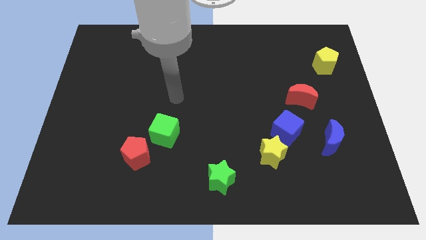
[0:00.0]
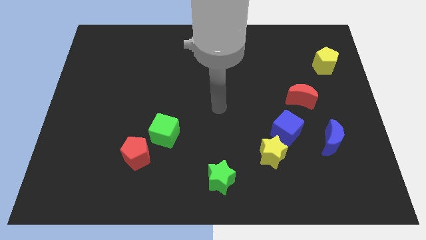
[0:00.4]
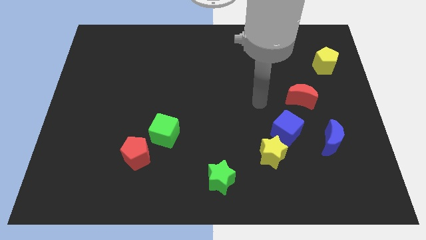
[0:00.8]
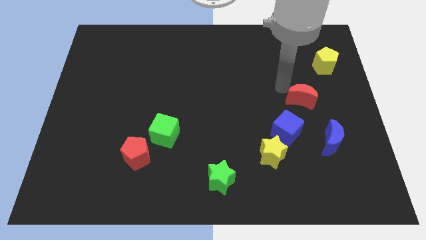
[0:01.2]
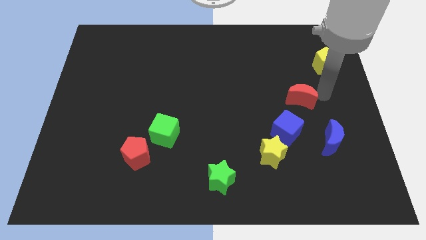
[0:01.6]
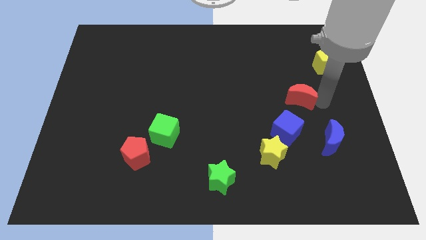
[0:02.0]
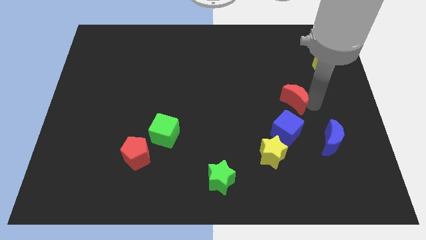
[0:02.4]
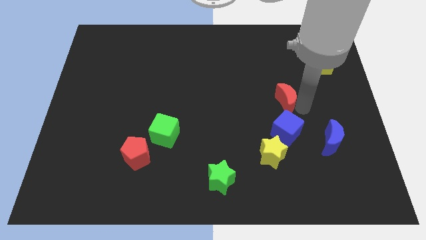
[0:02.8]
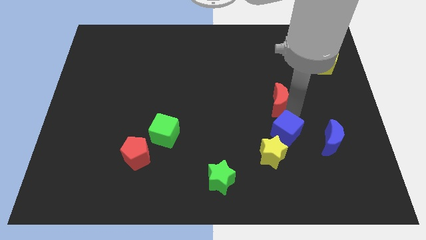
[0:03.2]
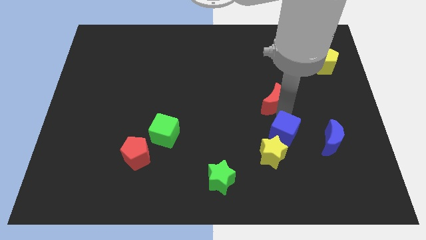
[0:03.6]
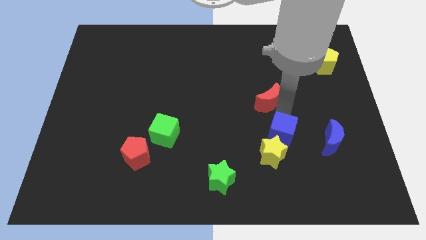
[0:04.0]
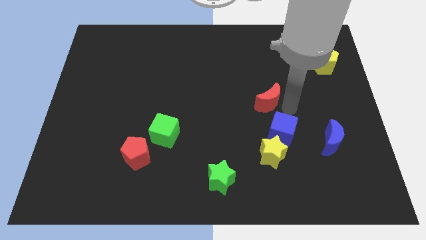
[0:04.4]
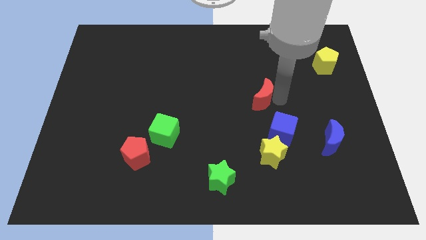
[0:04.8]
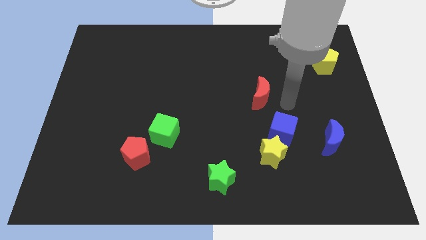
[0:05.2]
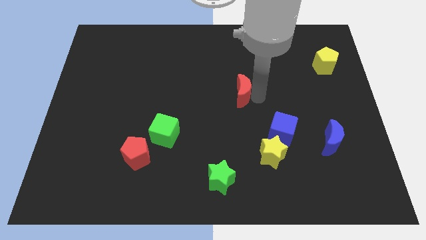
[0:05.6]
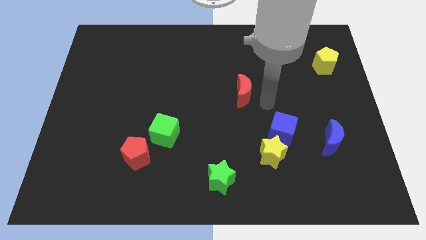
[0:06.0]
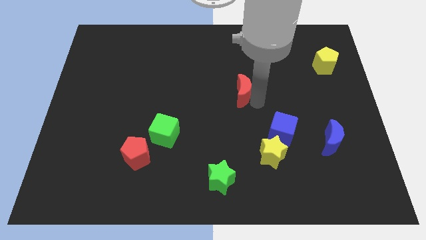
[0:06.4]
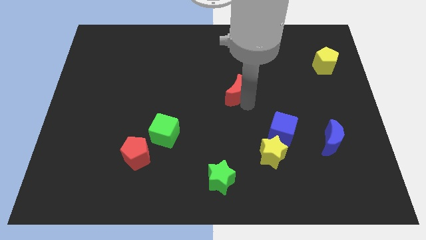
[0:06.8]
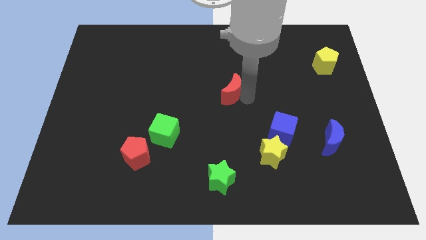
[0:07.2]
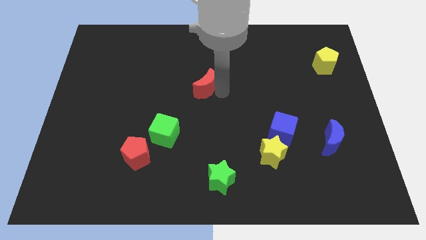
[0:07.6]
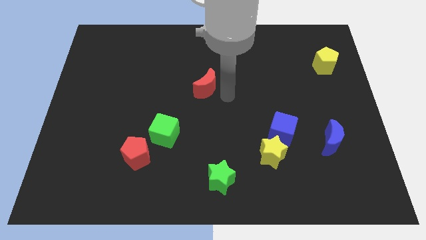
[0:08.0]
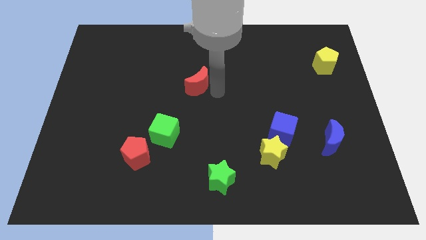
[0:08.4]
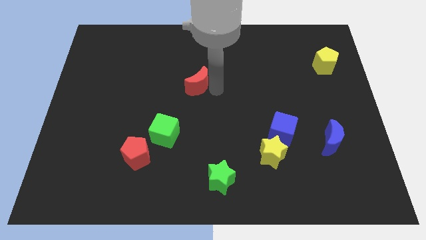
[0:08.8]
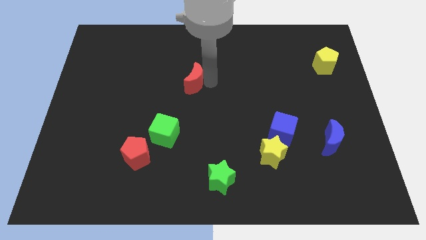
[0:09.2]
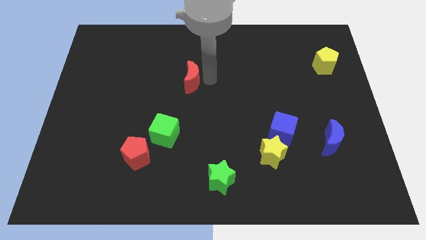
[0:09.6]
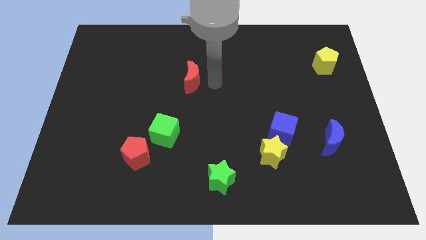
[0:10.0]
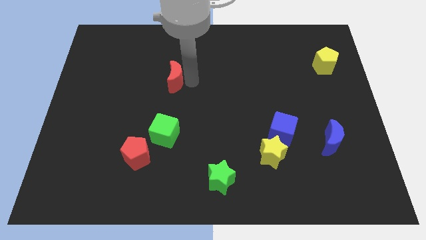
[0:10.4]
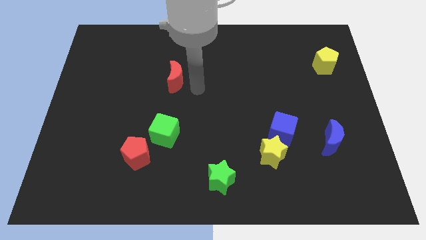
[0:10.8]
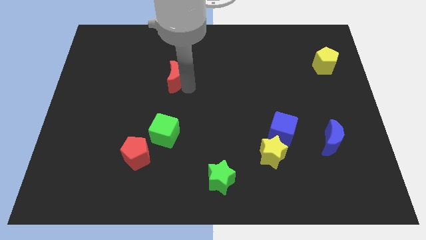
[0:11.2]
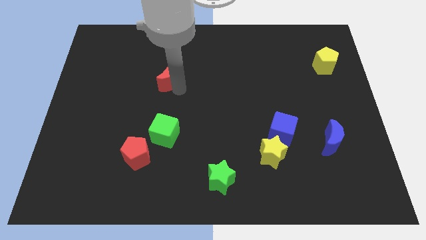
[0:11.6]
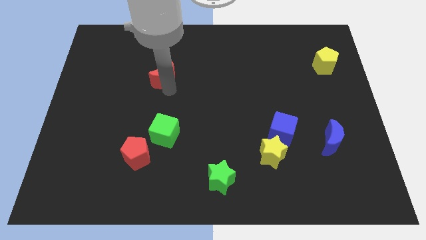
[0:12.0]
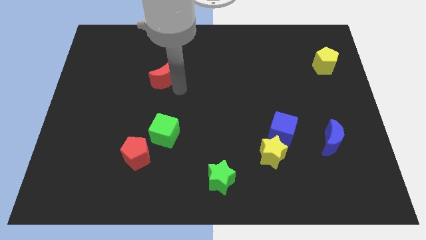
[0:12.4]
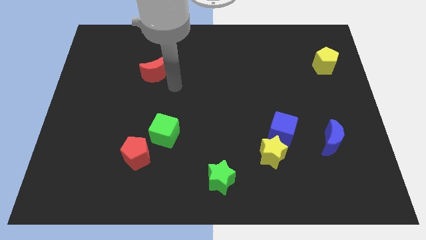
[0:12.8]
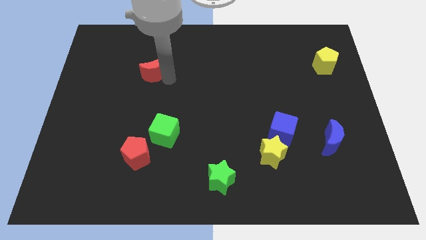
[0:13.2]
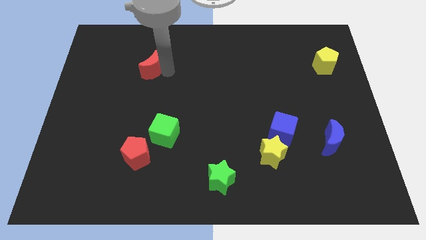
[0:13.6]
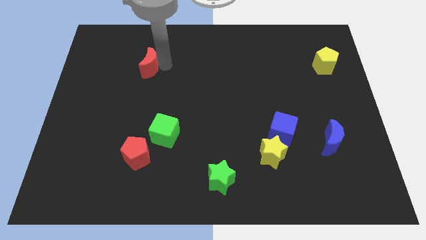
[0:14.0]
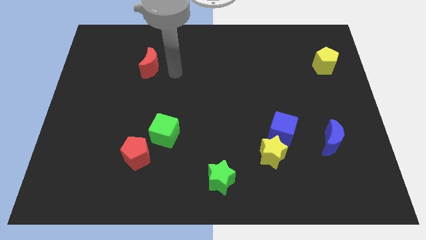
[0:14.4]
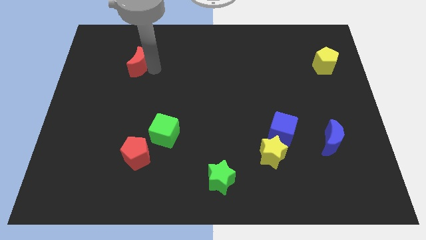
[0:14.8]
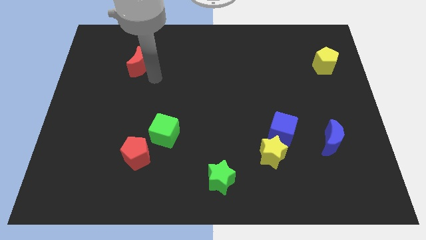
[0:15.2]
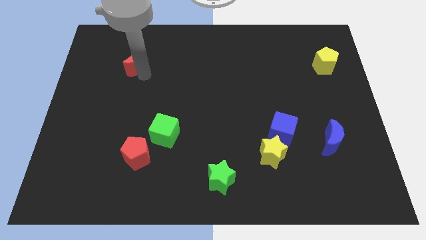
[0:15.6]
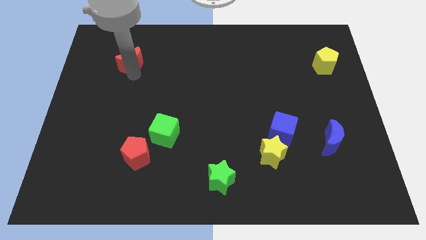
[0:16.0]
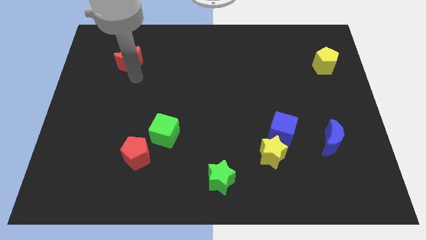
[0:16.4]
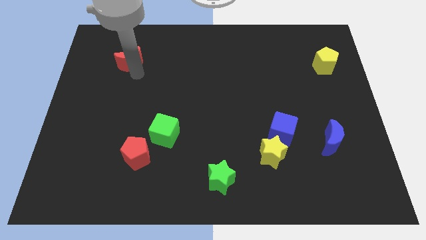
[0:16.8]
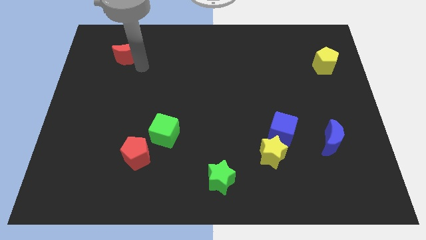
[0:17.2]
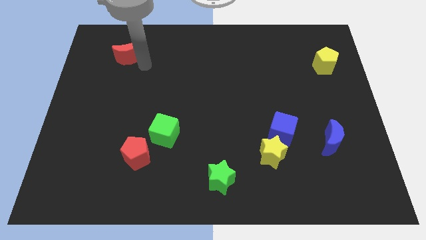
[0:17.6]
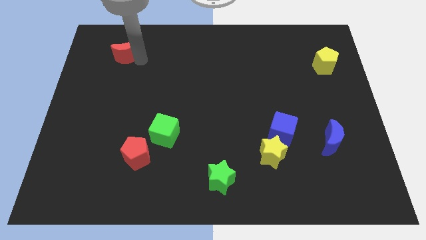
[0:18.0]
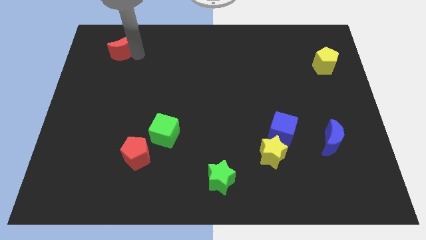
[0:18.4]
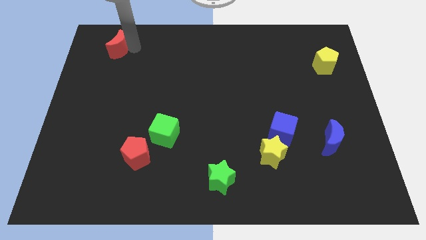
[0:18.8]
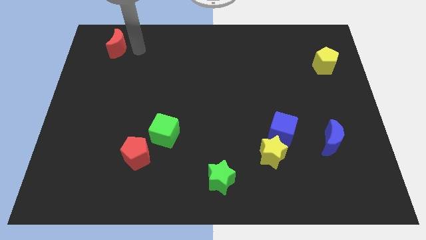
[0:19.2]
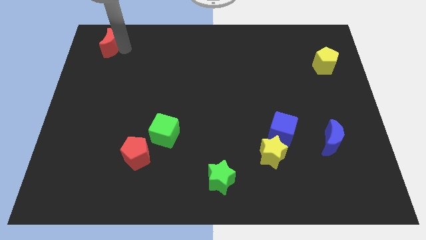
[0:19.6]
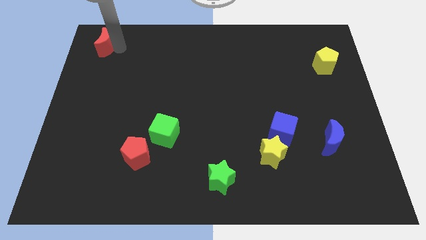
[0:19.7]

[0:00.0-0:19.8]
push the red moon to the top left

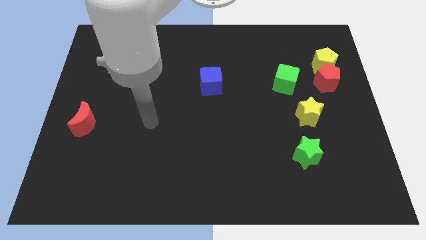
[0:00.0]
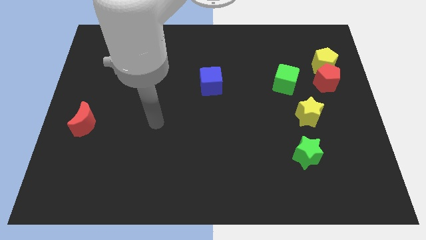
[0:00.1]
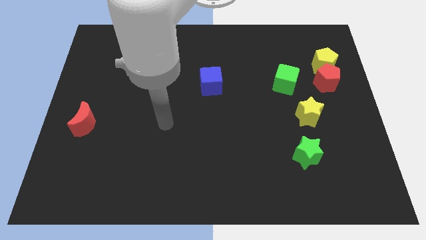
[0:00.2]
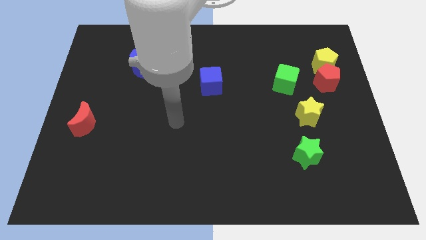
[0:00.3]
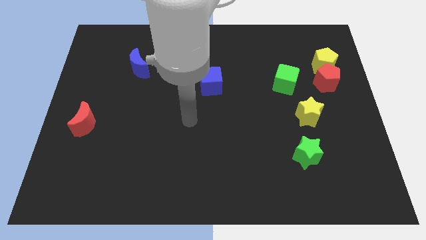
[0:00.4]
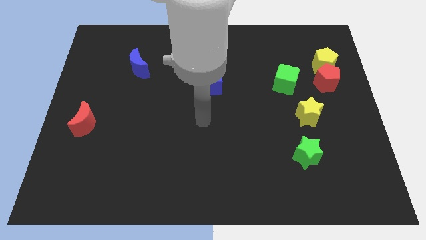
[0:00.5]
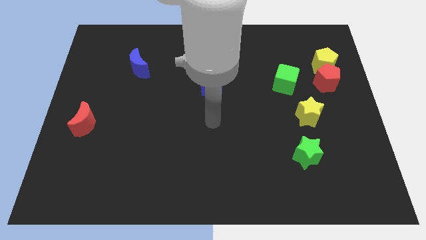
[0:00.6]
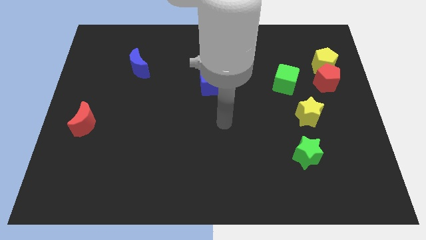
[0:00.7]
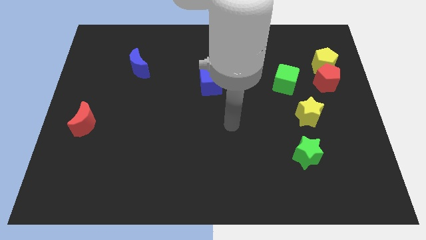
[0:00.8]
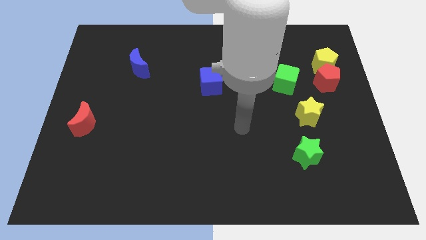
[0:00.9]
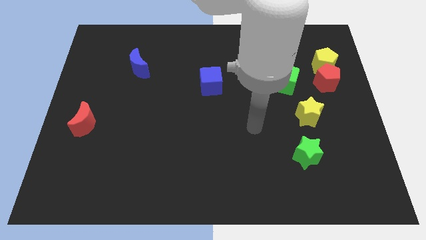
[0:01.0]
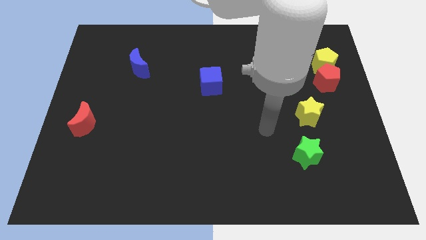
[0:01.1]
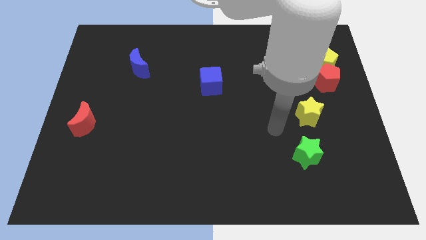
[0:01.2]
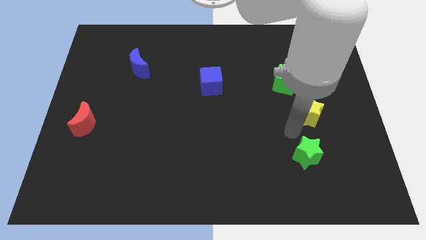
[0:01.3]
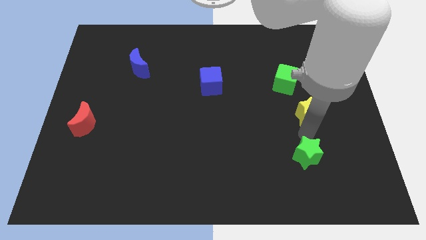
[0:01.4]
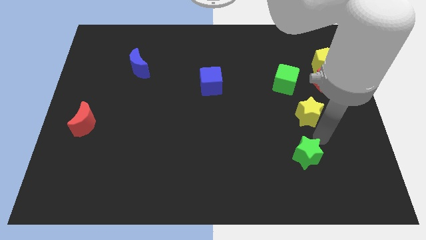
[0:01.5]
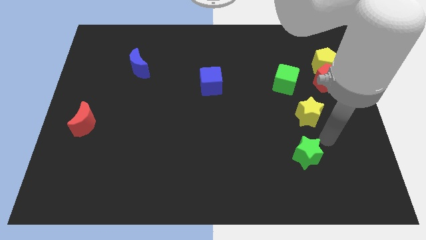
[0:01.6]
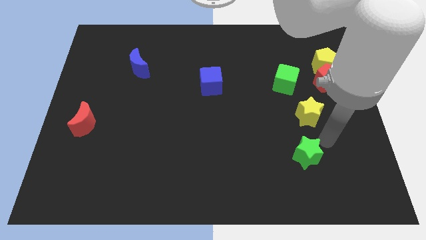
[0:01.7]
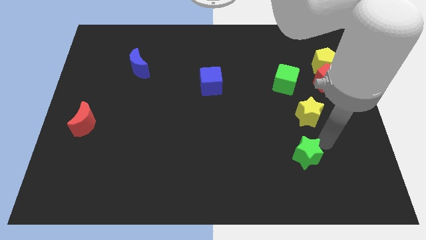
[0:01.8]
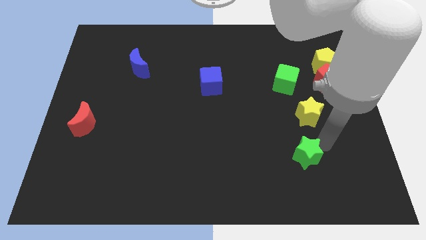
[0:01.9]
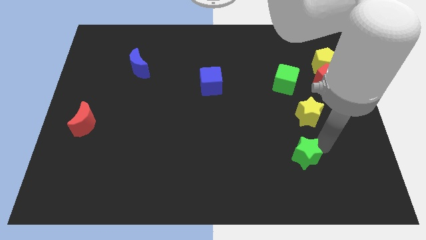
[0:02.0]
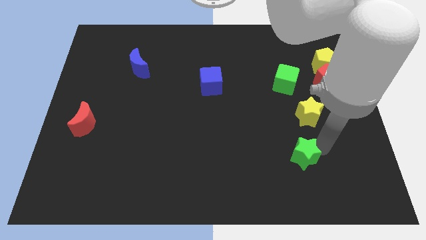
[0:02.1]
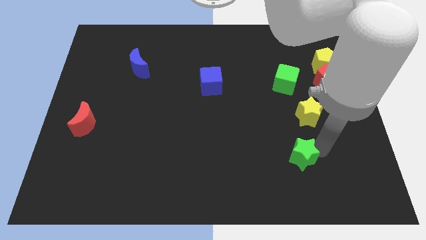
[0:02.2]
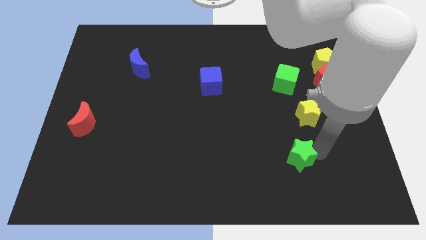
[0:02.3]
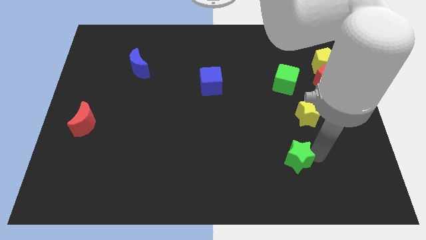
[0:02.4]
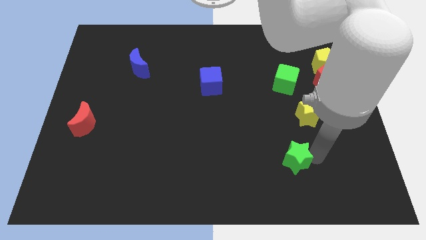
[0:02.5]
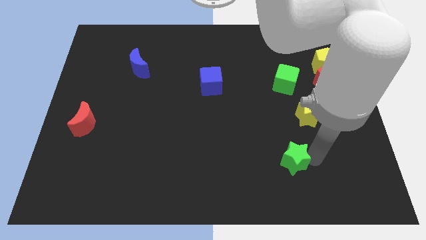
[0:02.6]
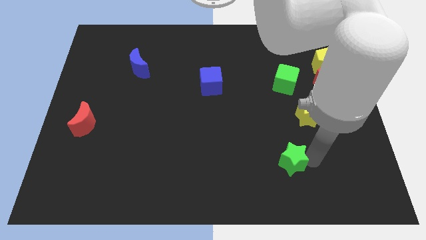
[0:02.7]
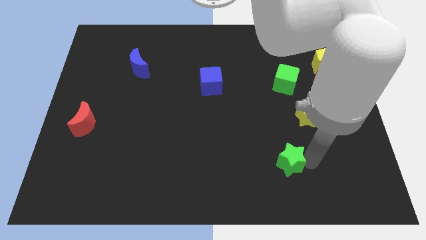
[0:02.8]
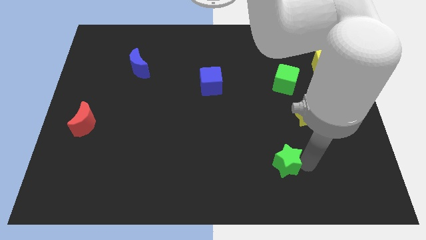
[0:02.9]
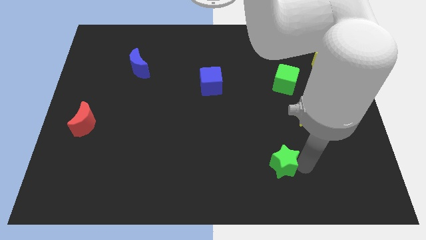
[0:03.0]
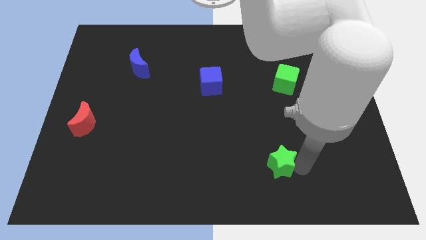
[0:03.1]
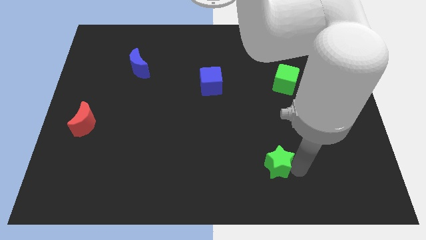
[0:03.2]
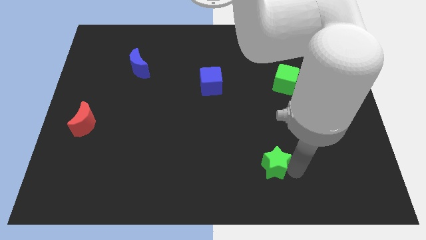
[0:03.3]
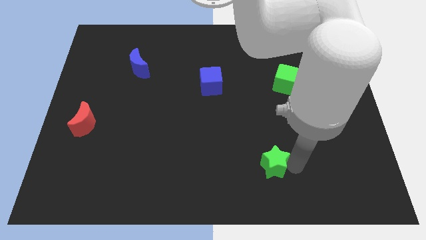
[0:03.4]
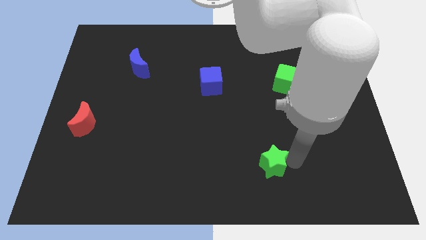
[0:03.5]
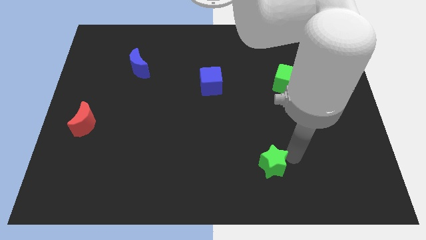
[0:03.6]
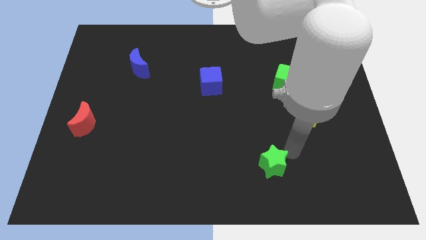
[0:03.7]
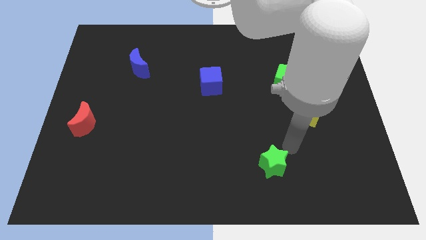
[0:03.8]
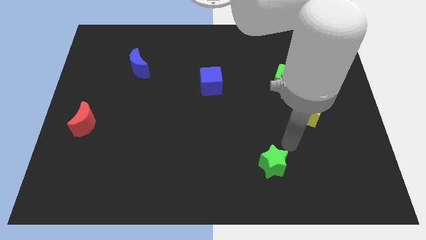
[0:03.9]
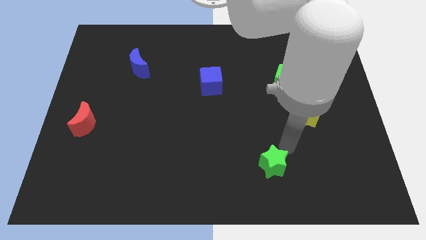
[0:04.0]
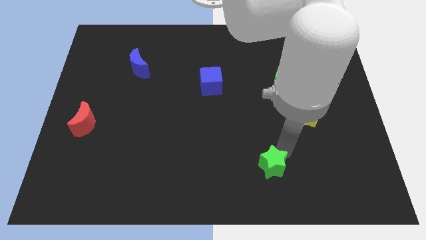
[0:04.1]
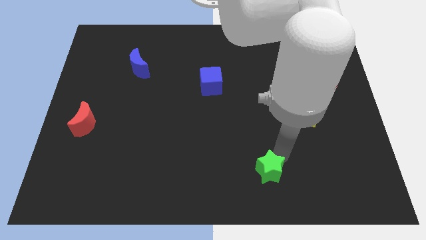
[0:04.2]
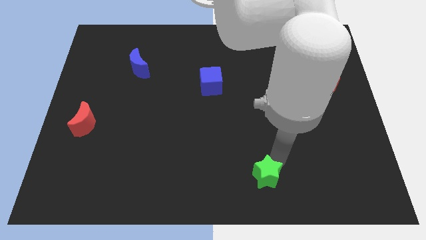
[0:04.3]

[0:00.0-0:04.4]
move the green star to the bottom
